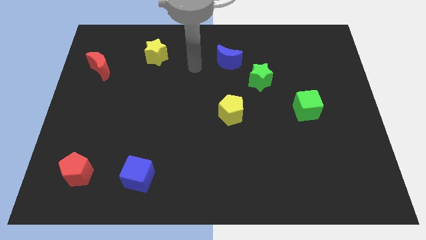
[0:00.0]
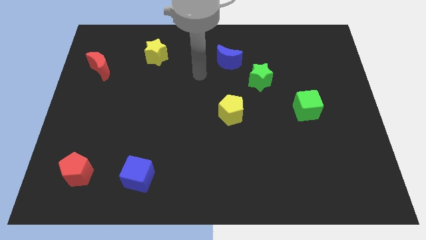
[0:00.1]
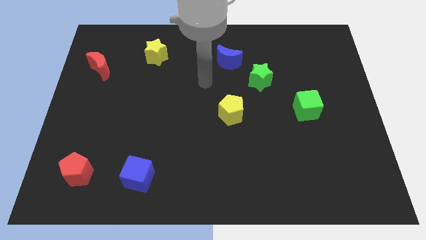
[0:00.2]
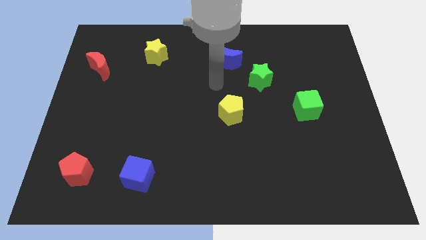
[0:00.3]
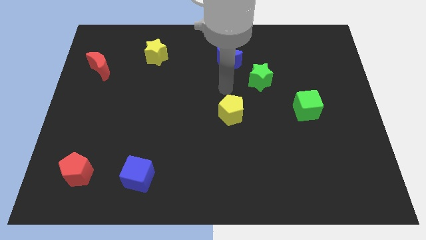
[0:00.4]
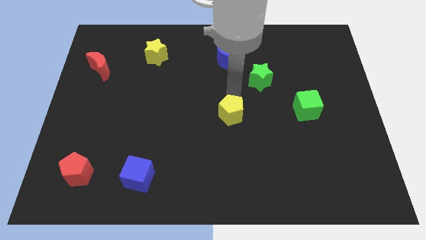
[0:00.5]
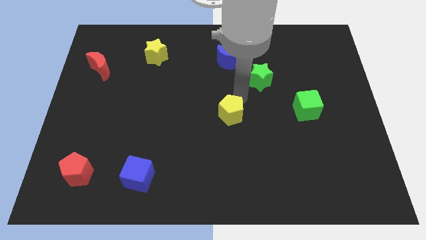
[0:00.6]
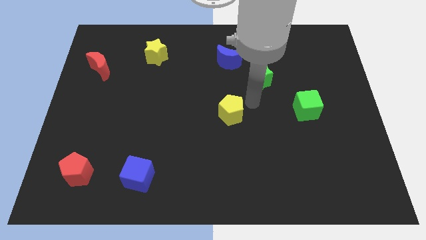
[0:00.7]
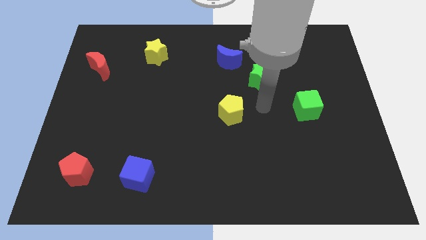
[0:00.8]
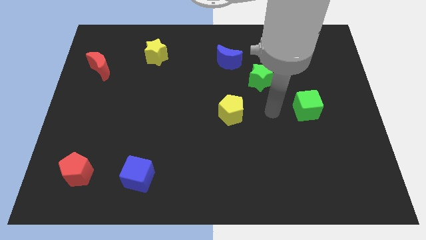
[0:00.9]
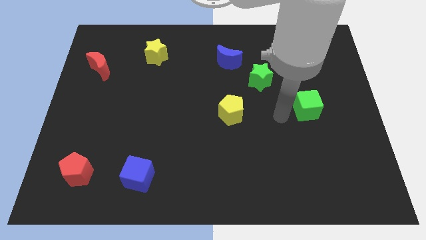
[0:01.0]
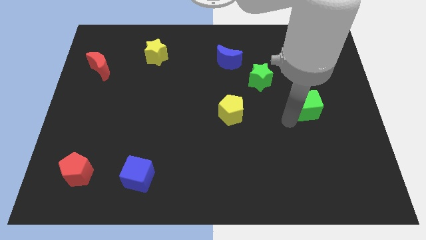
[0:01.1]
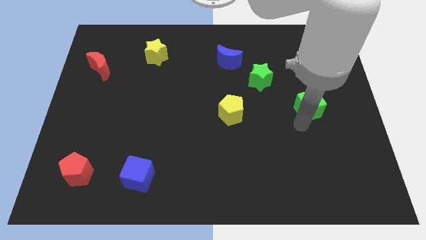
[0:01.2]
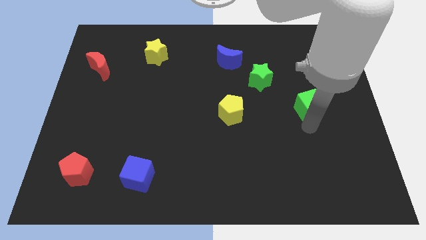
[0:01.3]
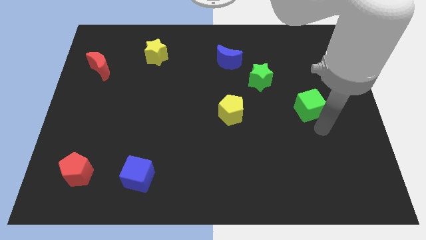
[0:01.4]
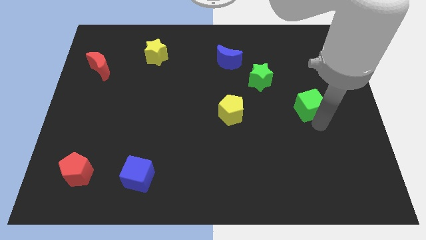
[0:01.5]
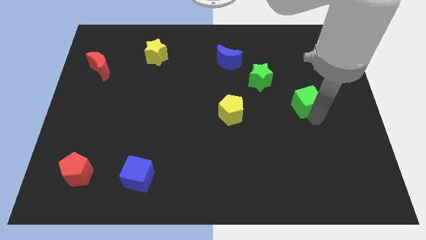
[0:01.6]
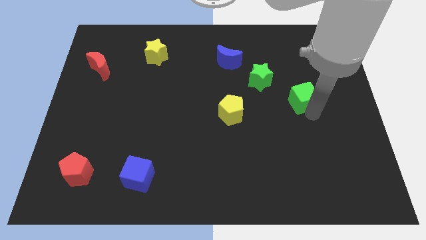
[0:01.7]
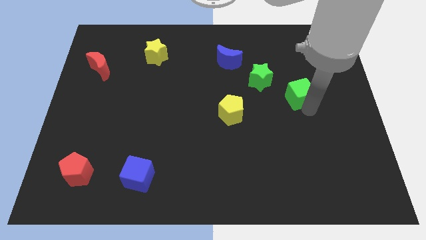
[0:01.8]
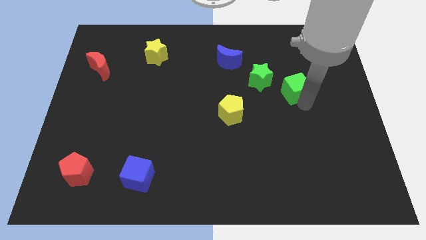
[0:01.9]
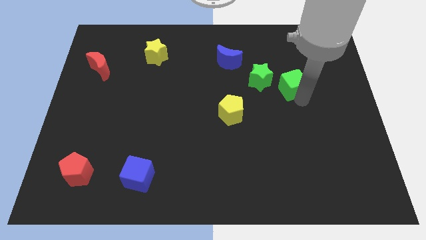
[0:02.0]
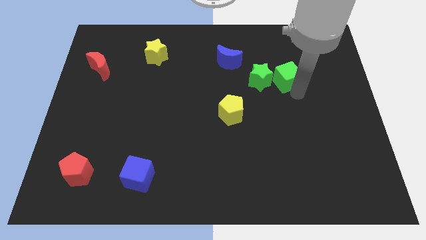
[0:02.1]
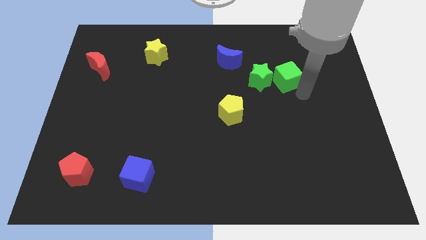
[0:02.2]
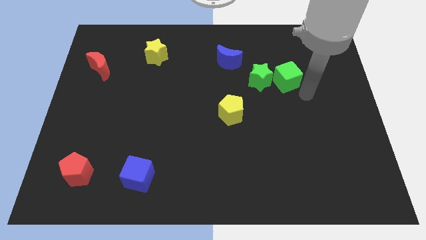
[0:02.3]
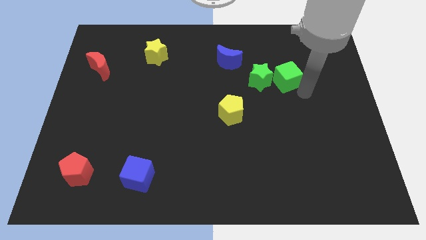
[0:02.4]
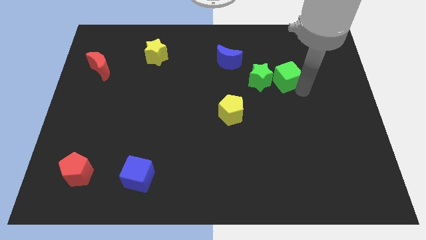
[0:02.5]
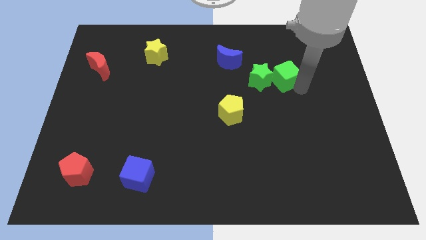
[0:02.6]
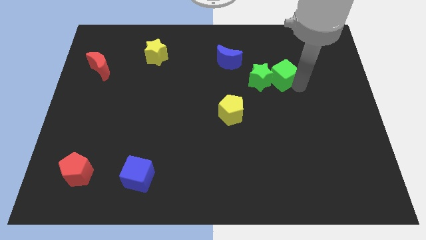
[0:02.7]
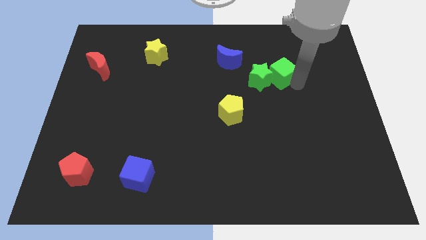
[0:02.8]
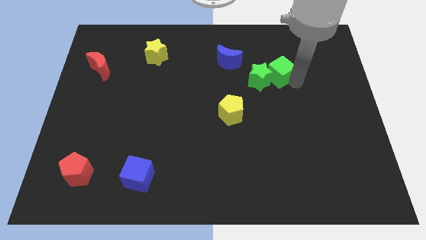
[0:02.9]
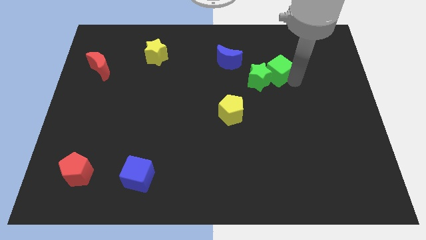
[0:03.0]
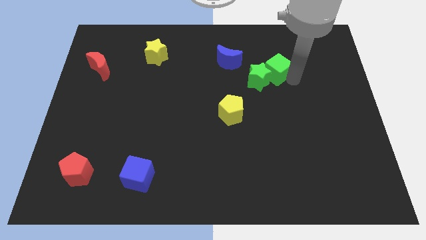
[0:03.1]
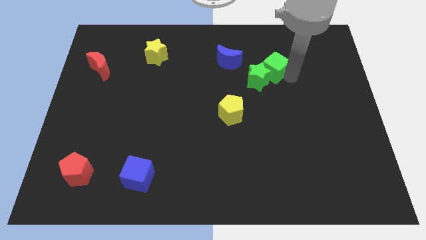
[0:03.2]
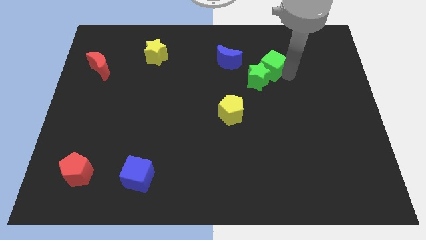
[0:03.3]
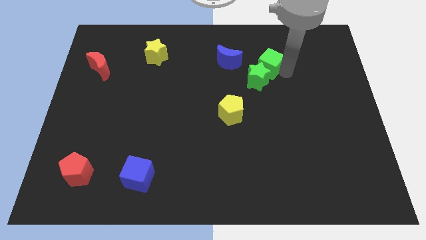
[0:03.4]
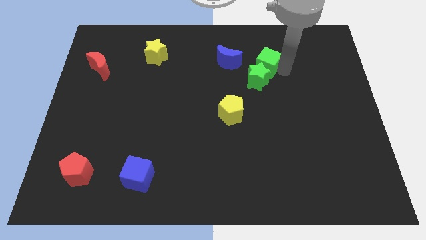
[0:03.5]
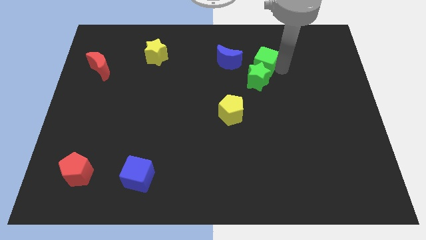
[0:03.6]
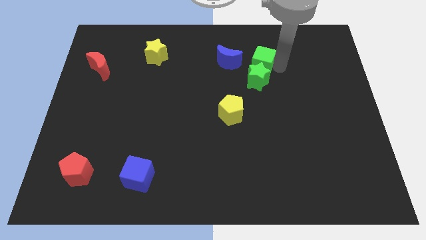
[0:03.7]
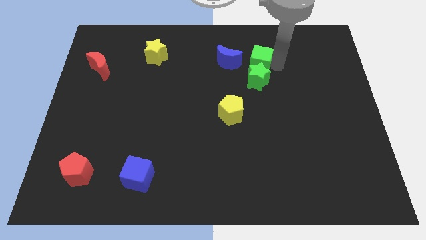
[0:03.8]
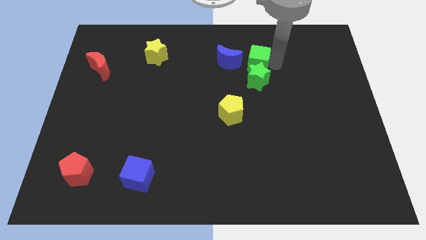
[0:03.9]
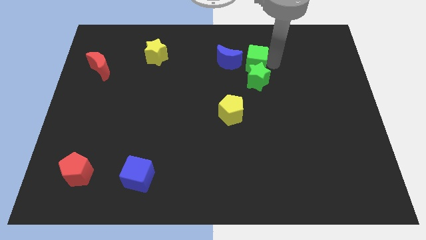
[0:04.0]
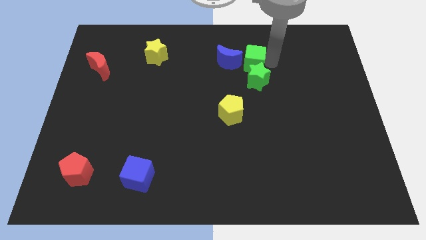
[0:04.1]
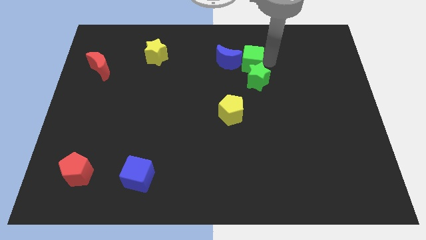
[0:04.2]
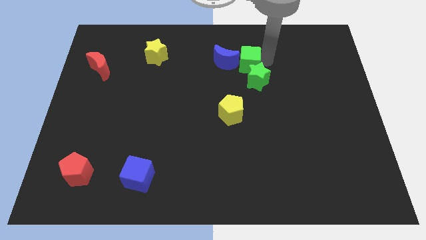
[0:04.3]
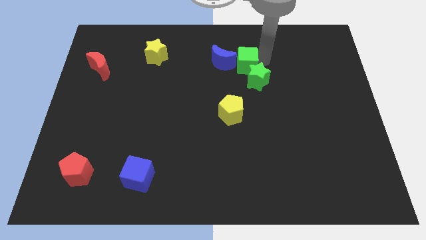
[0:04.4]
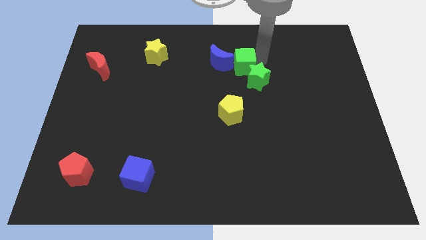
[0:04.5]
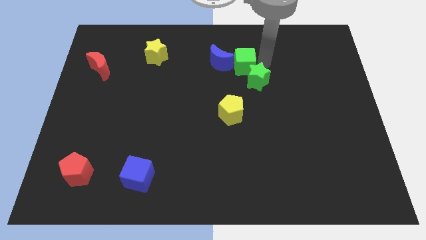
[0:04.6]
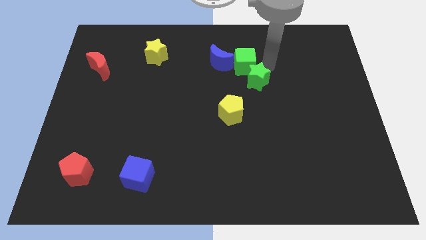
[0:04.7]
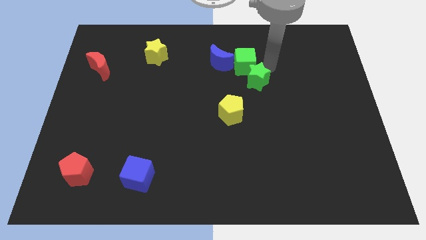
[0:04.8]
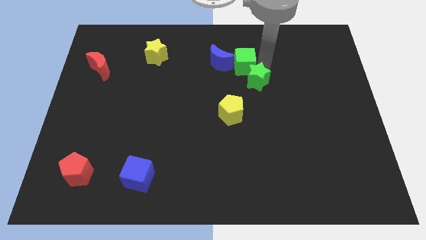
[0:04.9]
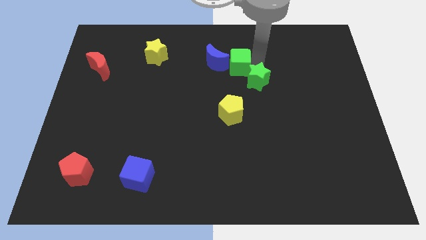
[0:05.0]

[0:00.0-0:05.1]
slide the green cube towards the blue moon

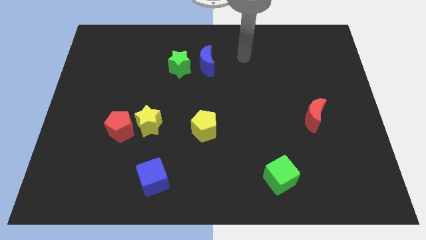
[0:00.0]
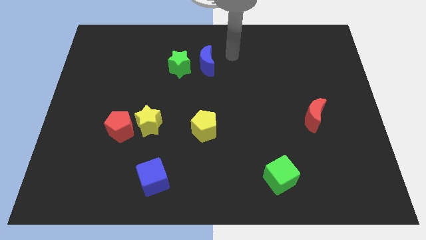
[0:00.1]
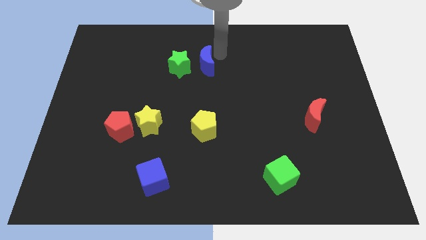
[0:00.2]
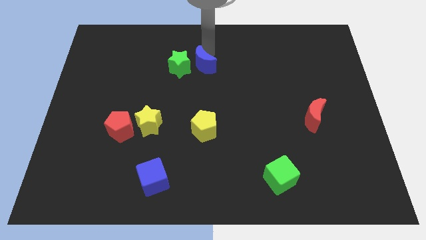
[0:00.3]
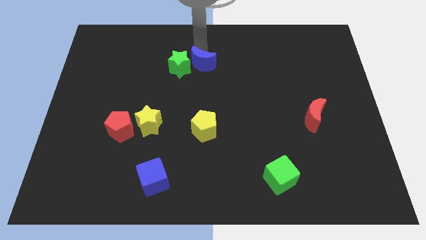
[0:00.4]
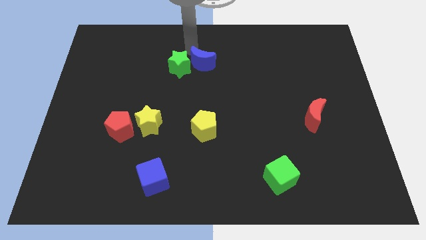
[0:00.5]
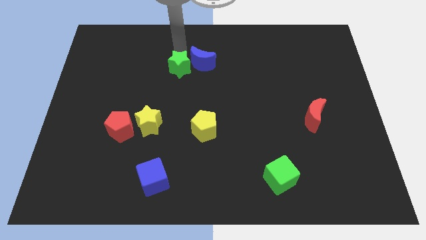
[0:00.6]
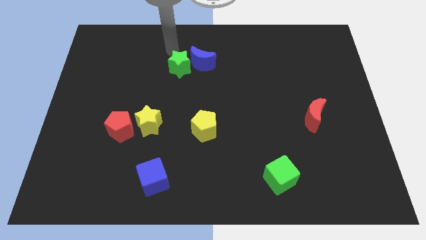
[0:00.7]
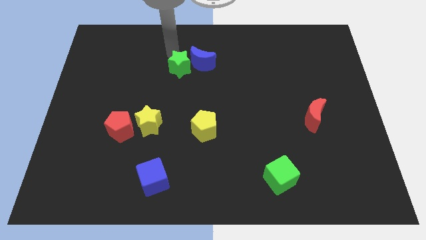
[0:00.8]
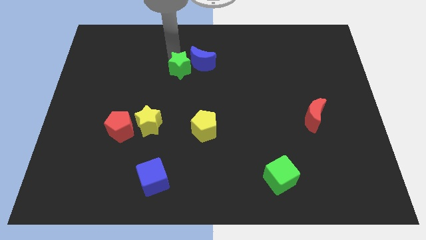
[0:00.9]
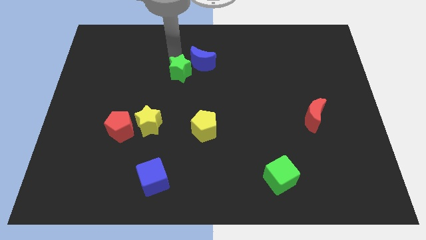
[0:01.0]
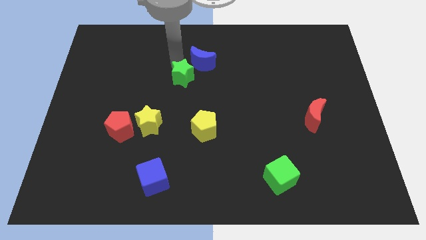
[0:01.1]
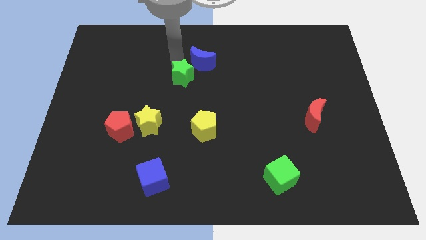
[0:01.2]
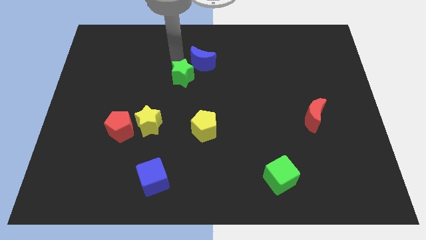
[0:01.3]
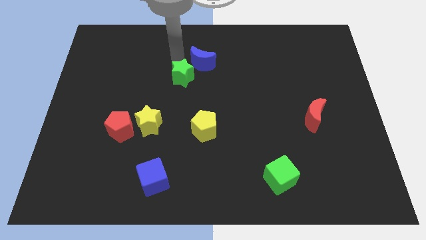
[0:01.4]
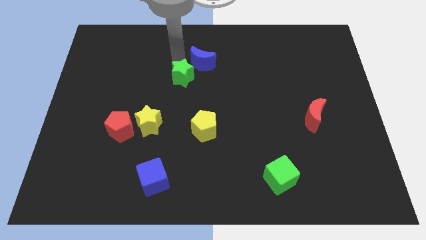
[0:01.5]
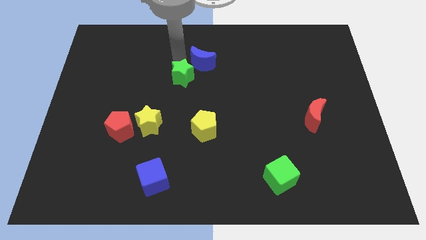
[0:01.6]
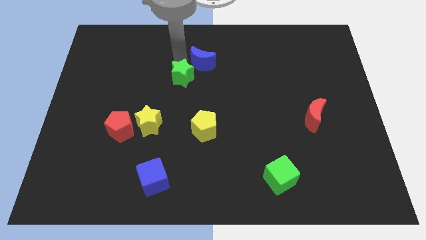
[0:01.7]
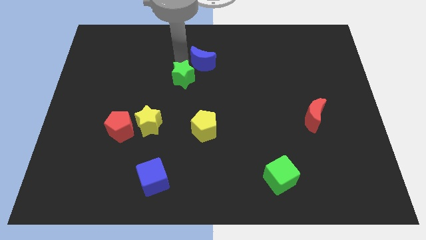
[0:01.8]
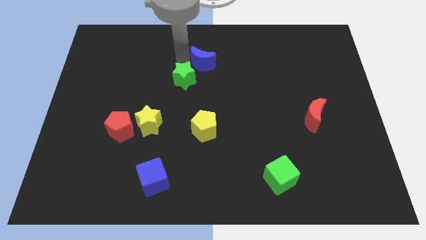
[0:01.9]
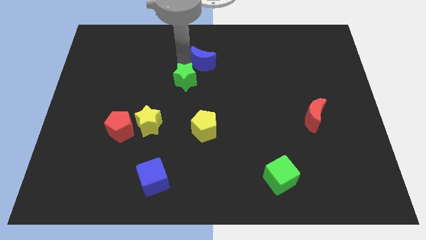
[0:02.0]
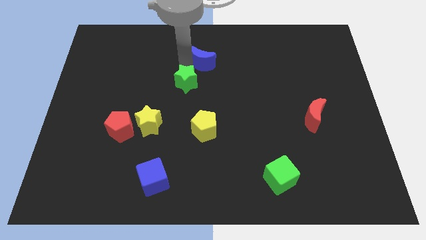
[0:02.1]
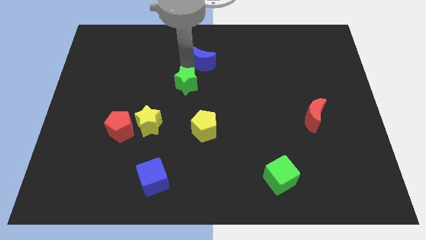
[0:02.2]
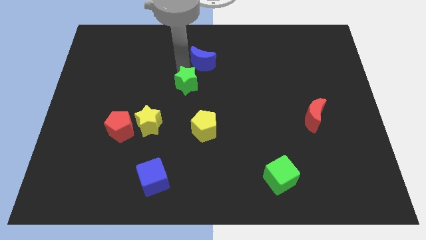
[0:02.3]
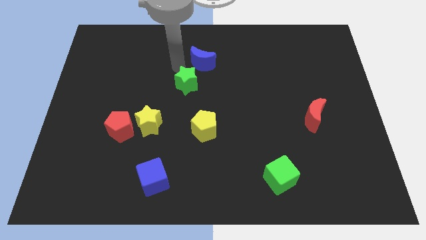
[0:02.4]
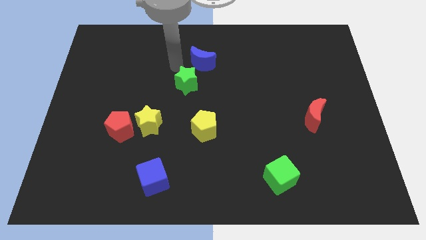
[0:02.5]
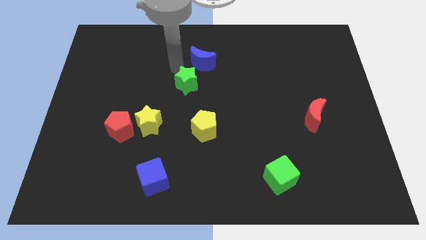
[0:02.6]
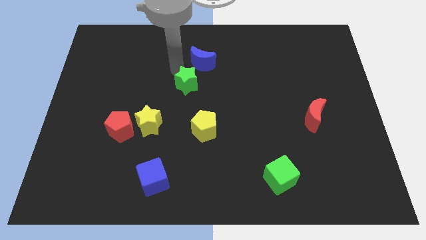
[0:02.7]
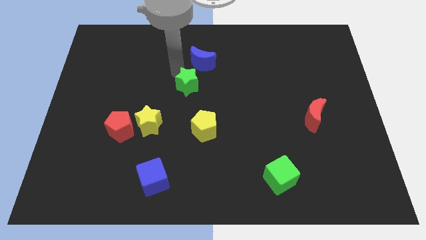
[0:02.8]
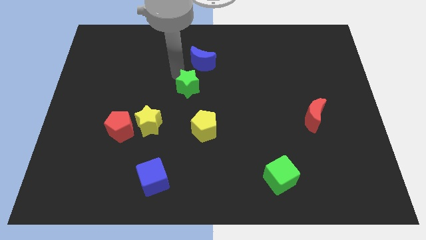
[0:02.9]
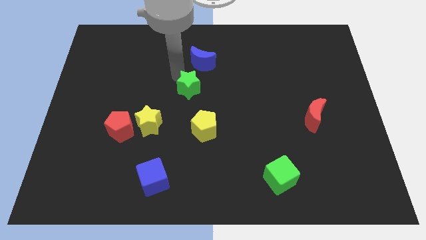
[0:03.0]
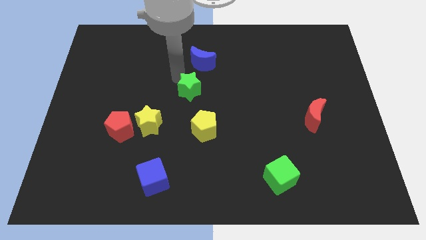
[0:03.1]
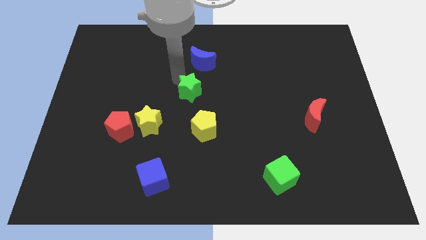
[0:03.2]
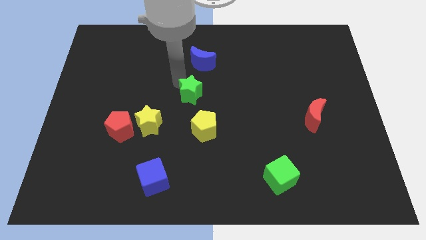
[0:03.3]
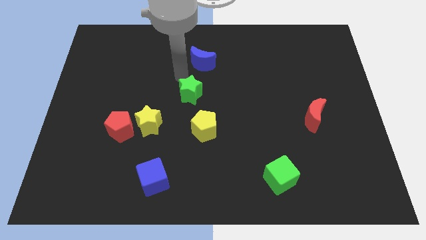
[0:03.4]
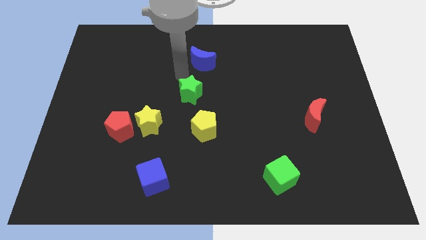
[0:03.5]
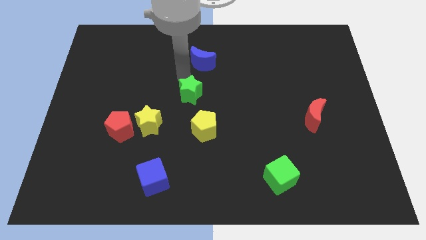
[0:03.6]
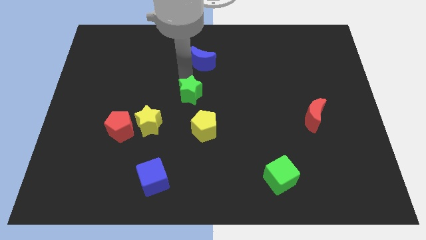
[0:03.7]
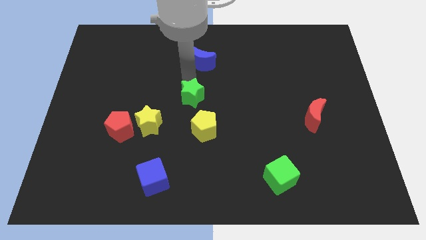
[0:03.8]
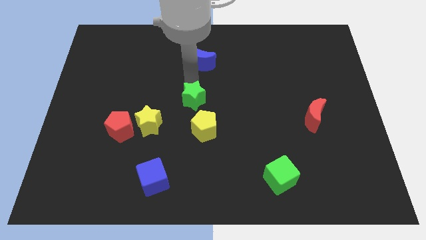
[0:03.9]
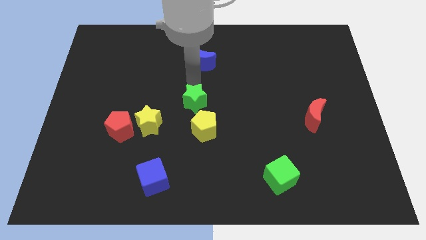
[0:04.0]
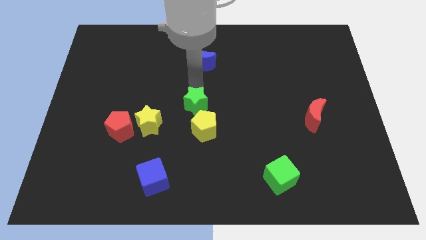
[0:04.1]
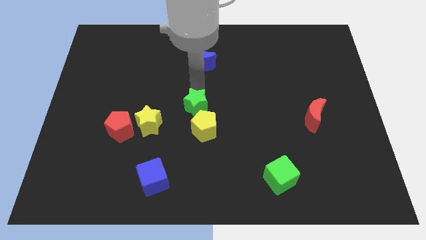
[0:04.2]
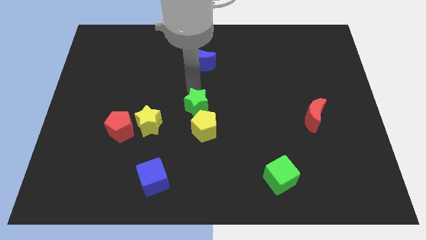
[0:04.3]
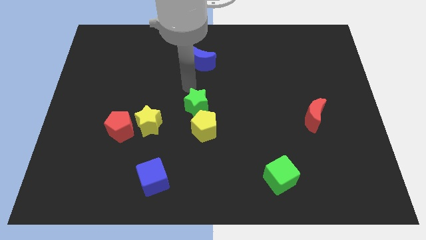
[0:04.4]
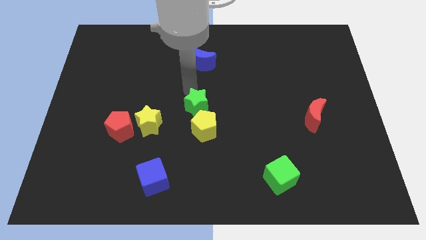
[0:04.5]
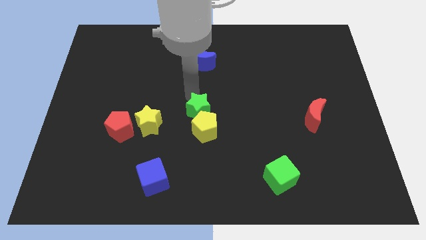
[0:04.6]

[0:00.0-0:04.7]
move the green star next to the yellow pentagon
